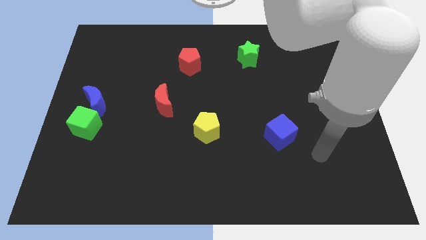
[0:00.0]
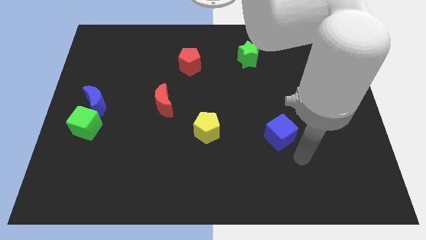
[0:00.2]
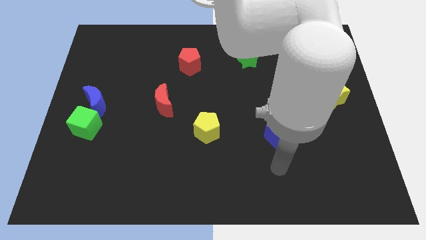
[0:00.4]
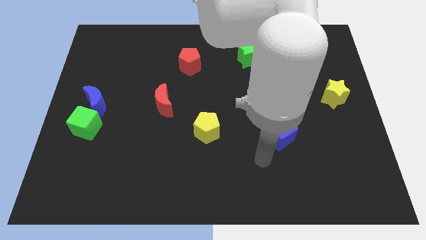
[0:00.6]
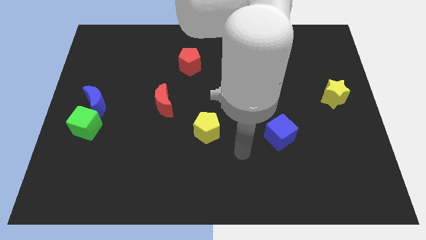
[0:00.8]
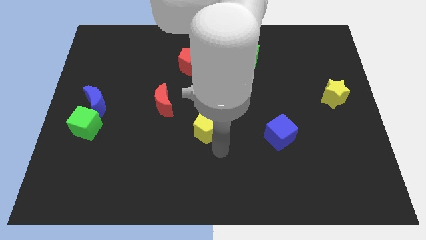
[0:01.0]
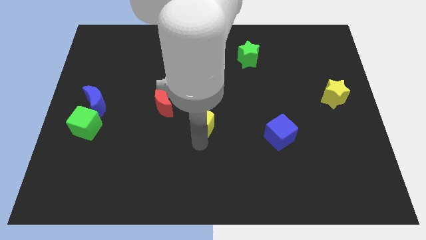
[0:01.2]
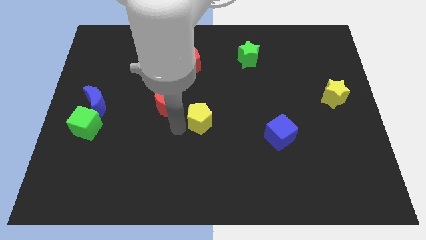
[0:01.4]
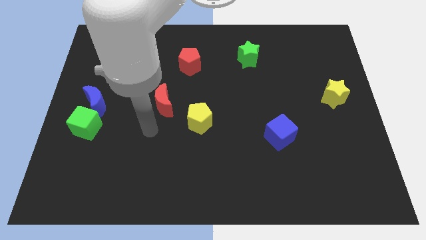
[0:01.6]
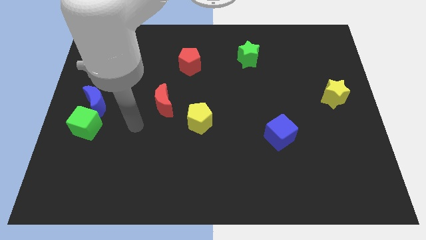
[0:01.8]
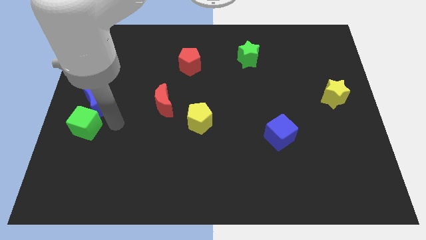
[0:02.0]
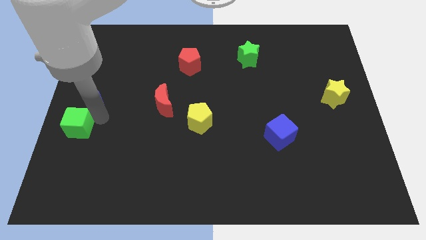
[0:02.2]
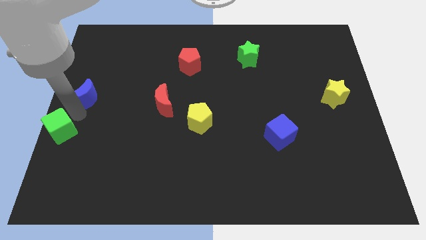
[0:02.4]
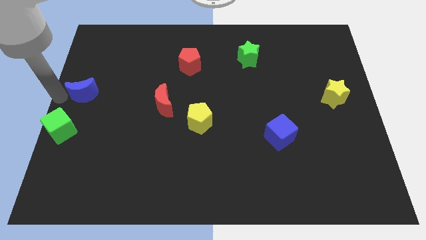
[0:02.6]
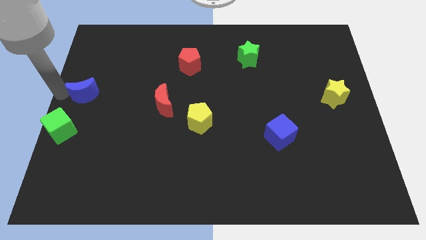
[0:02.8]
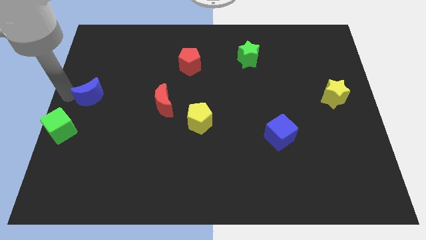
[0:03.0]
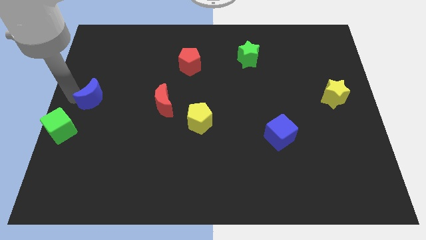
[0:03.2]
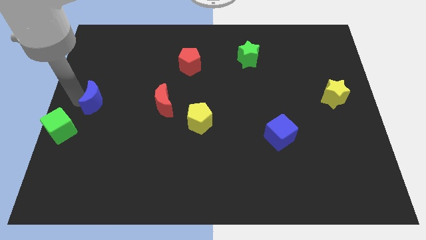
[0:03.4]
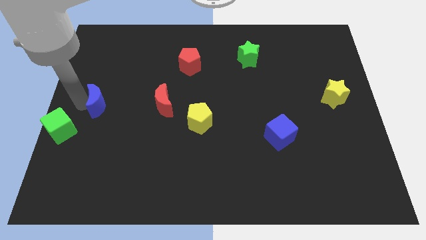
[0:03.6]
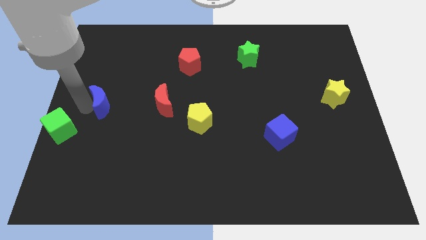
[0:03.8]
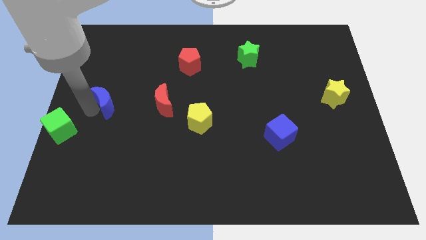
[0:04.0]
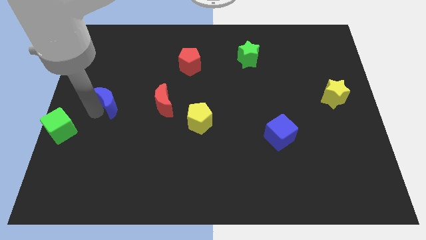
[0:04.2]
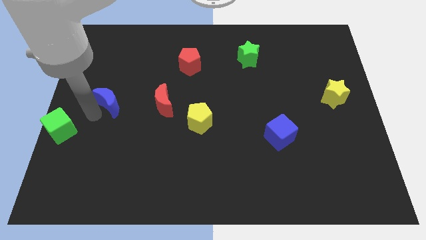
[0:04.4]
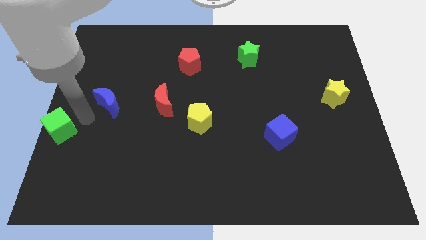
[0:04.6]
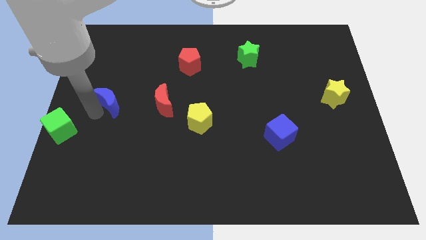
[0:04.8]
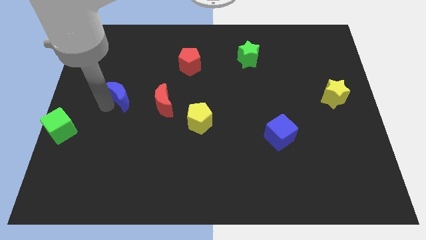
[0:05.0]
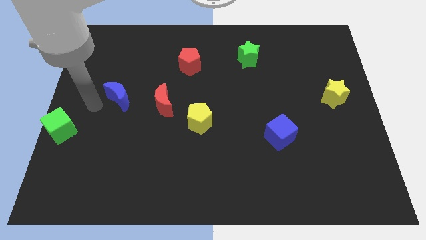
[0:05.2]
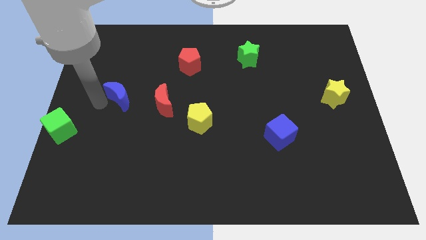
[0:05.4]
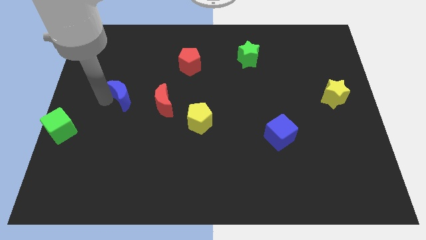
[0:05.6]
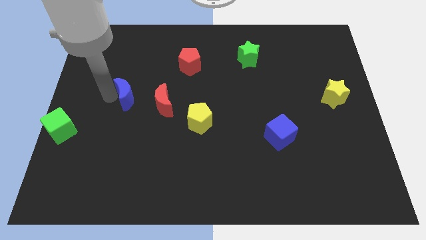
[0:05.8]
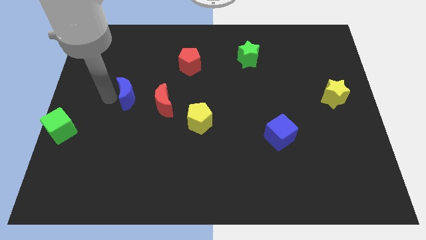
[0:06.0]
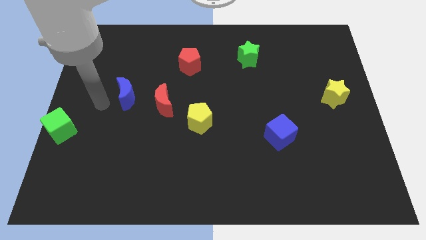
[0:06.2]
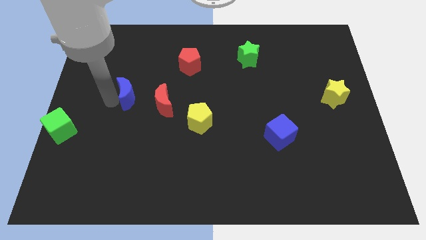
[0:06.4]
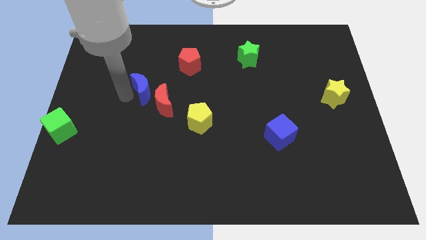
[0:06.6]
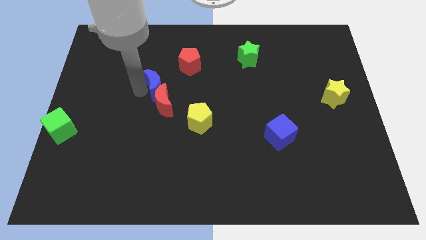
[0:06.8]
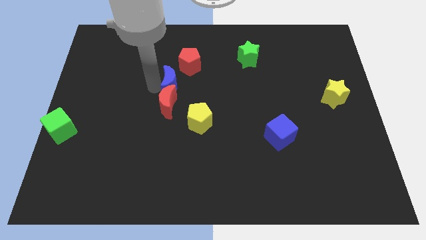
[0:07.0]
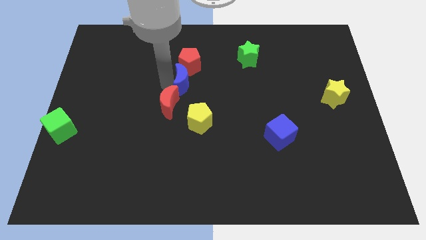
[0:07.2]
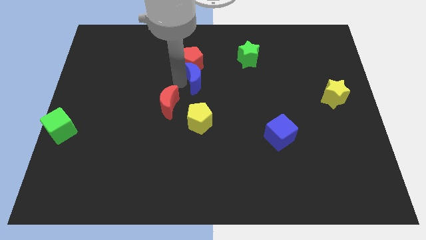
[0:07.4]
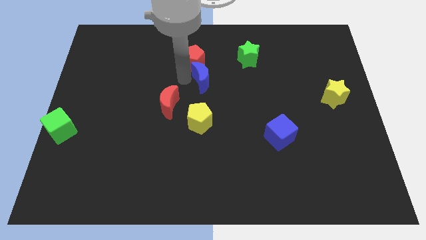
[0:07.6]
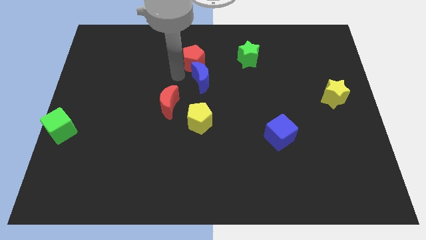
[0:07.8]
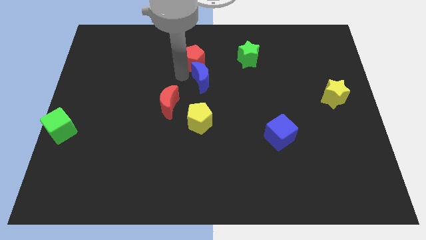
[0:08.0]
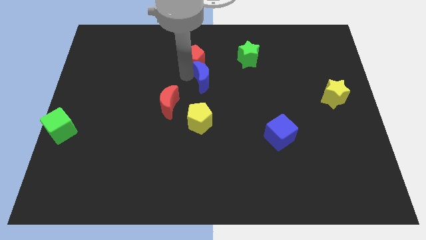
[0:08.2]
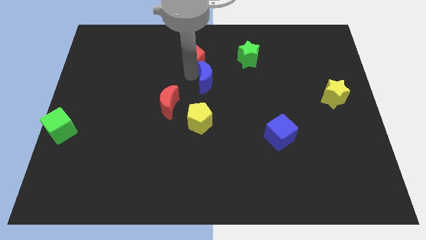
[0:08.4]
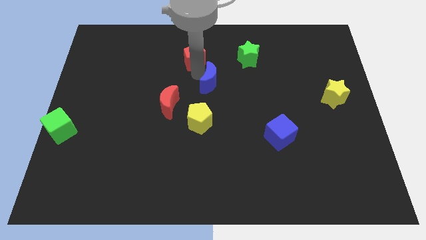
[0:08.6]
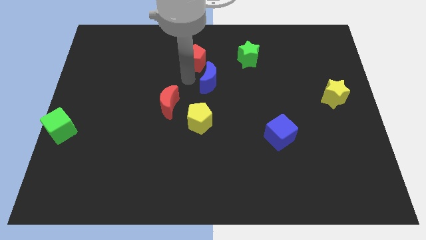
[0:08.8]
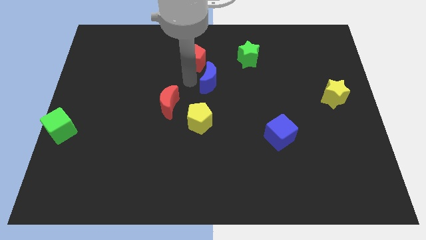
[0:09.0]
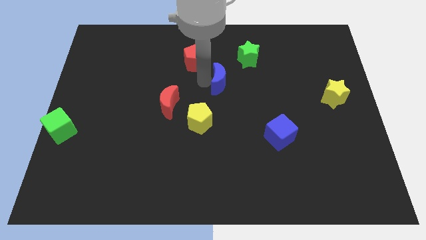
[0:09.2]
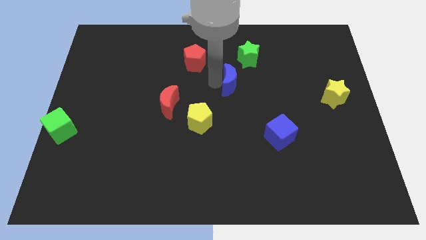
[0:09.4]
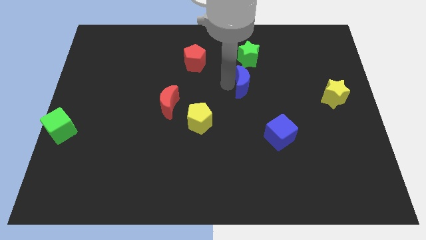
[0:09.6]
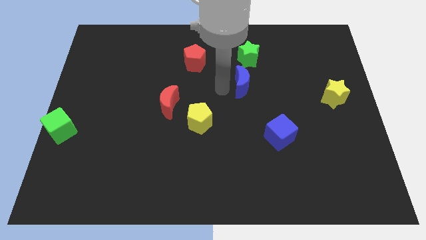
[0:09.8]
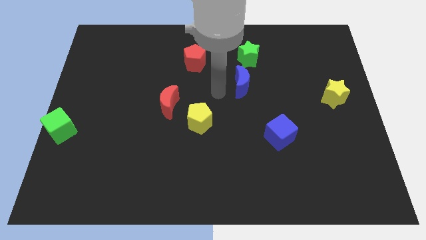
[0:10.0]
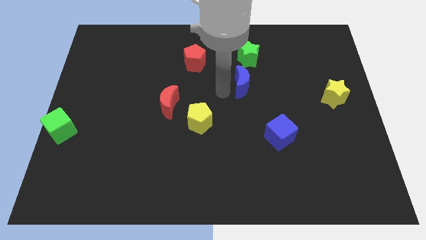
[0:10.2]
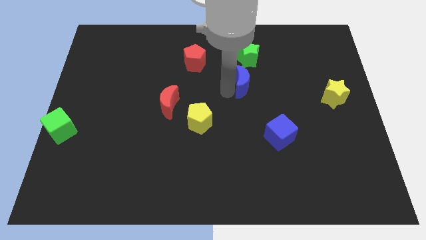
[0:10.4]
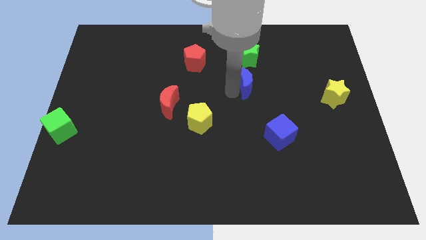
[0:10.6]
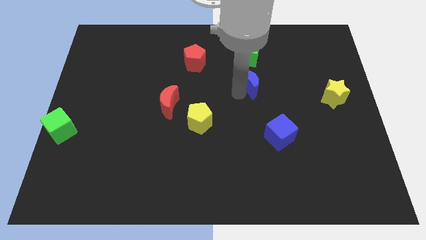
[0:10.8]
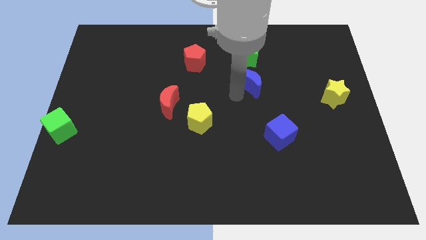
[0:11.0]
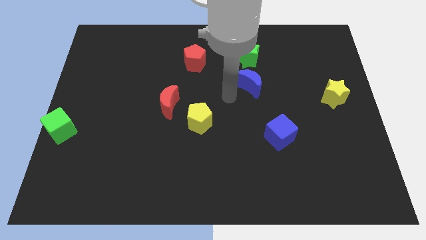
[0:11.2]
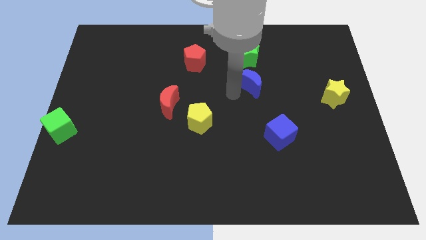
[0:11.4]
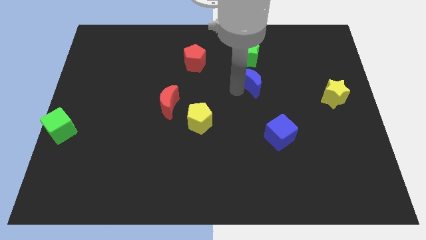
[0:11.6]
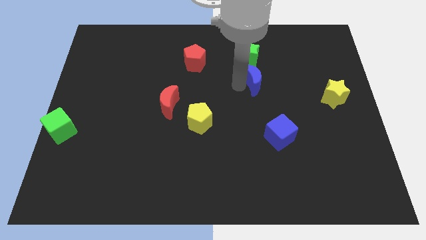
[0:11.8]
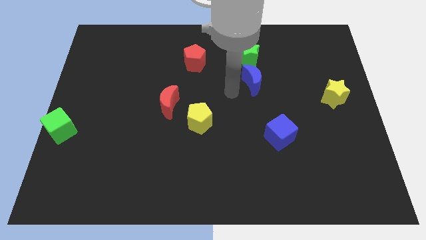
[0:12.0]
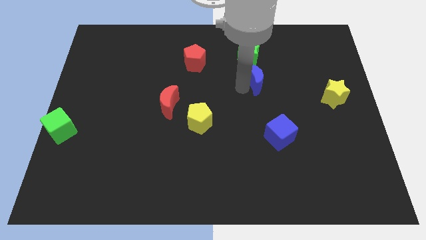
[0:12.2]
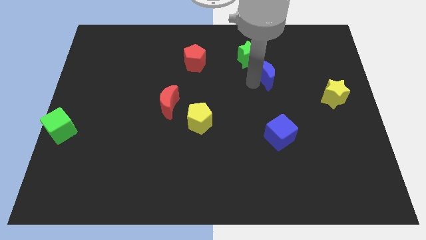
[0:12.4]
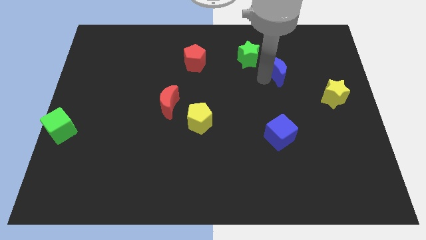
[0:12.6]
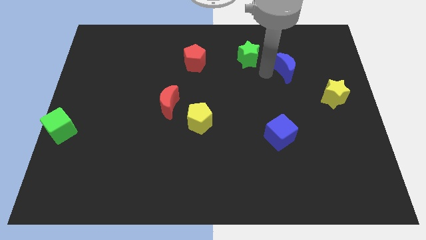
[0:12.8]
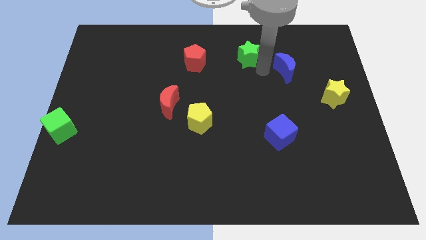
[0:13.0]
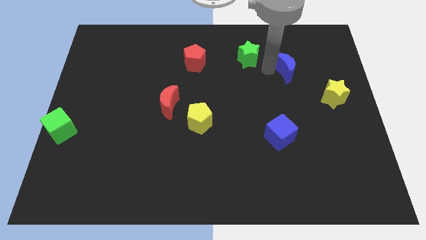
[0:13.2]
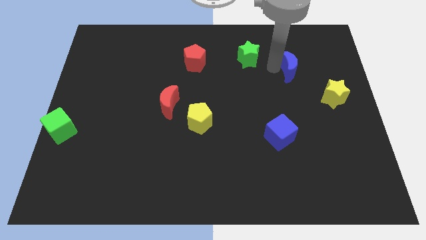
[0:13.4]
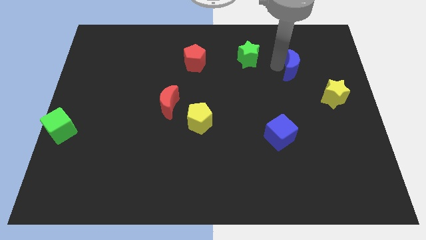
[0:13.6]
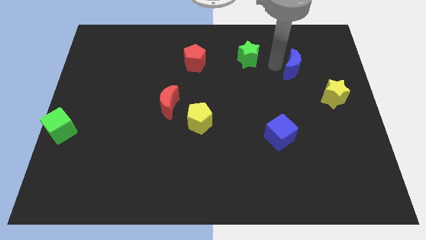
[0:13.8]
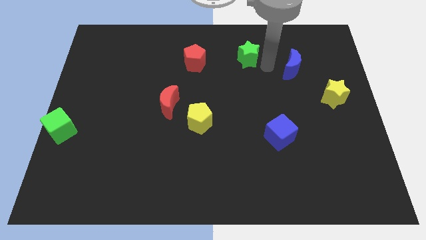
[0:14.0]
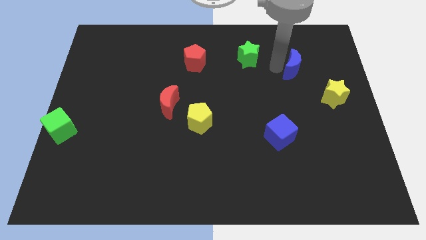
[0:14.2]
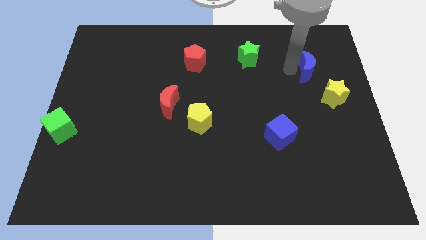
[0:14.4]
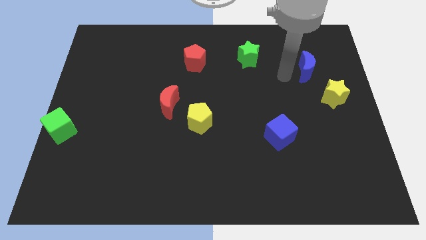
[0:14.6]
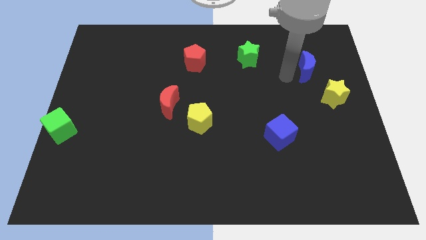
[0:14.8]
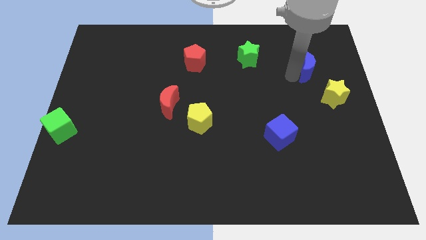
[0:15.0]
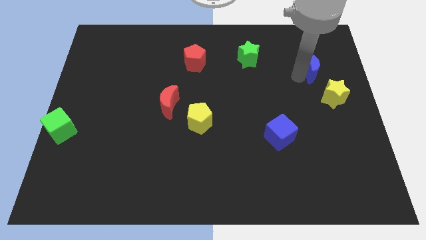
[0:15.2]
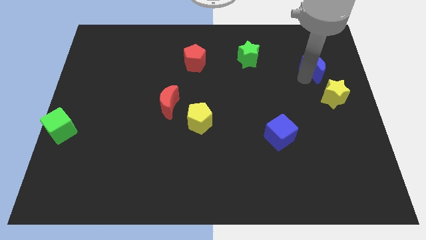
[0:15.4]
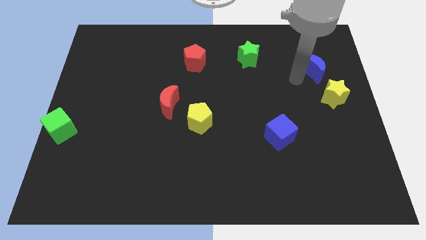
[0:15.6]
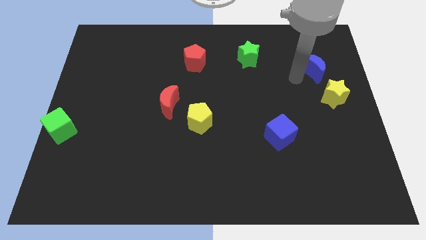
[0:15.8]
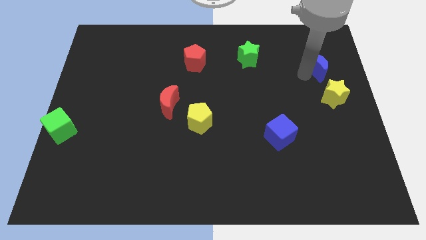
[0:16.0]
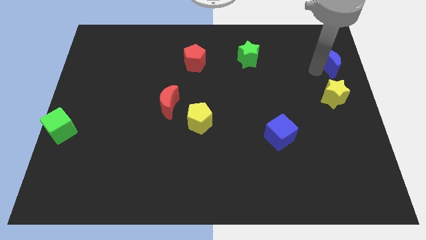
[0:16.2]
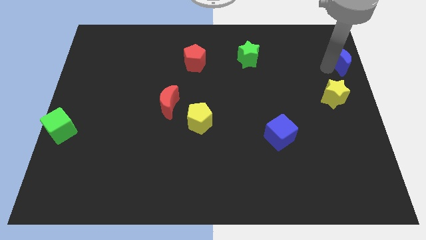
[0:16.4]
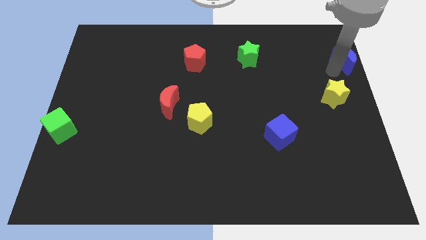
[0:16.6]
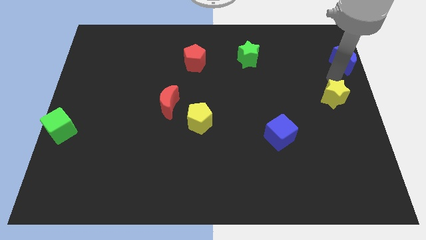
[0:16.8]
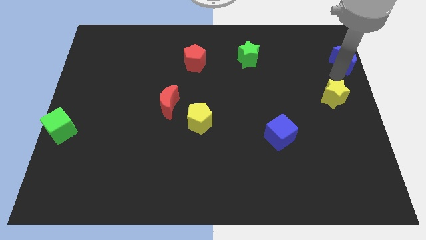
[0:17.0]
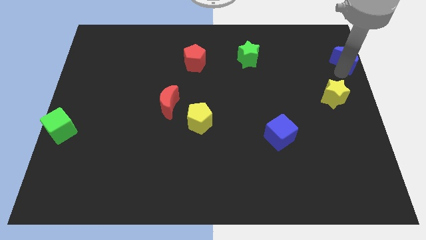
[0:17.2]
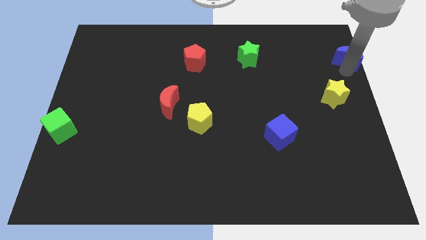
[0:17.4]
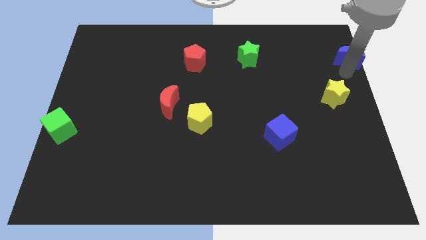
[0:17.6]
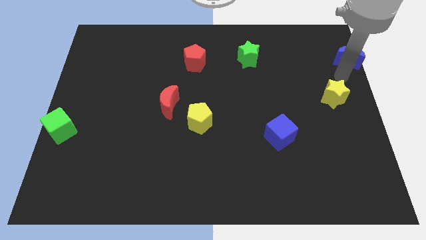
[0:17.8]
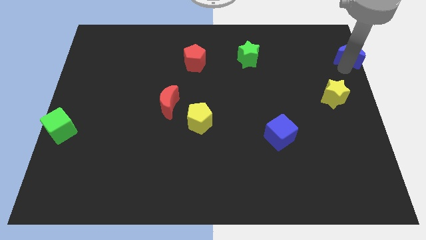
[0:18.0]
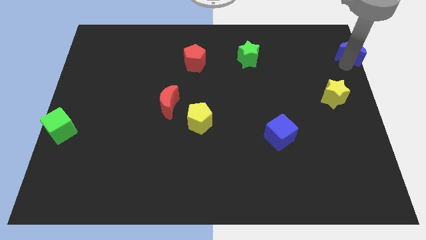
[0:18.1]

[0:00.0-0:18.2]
push the blue moon to the upper right corner
